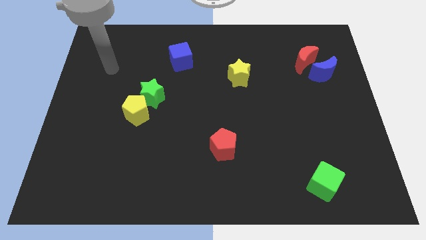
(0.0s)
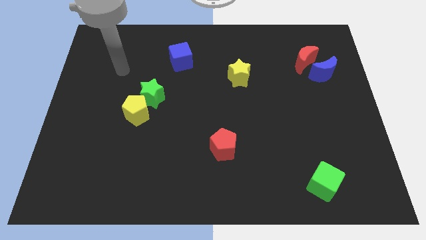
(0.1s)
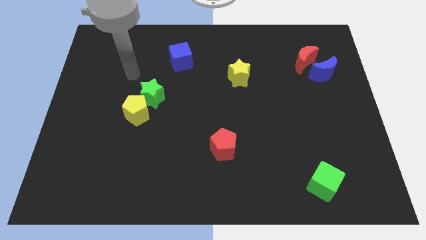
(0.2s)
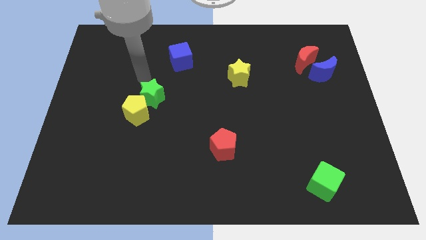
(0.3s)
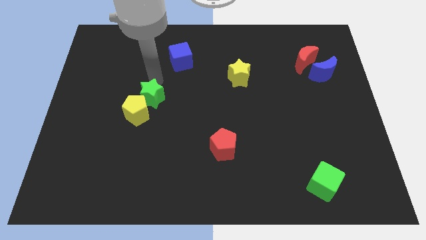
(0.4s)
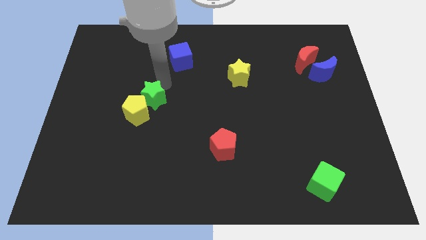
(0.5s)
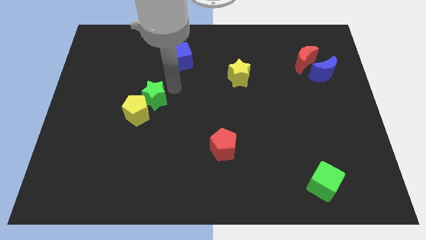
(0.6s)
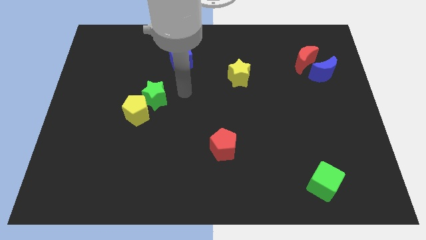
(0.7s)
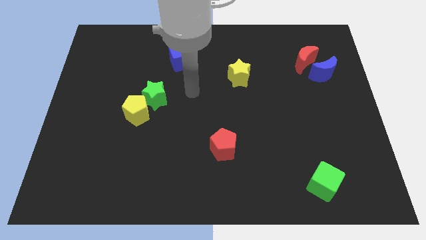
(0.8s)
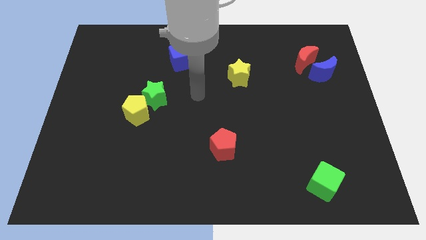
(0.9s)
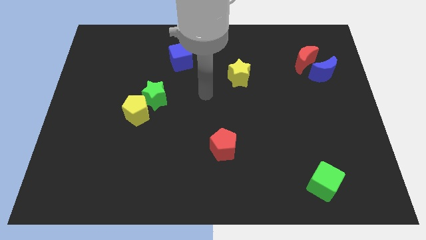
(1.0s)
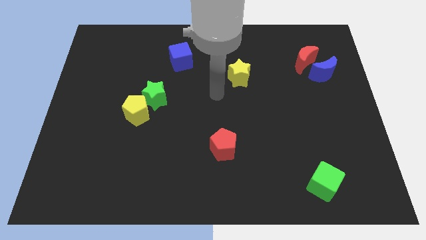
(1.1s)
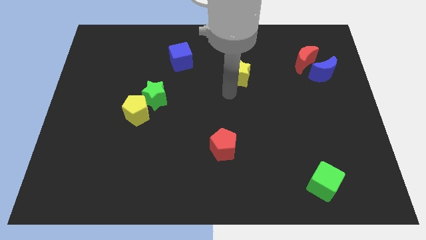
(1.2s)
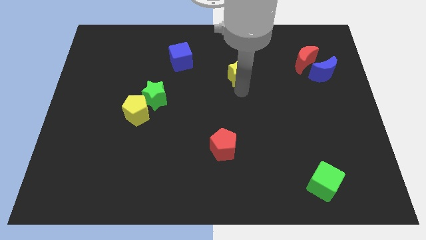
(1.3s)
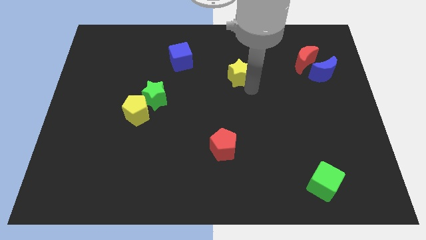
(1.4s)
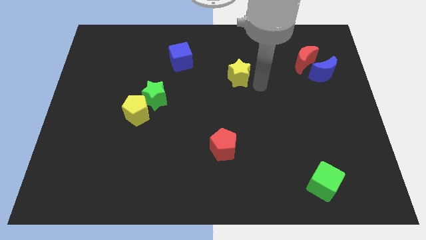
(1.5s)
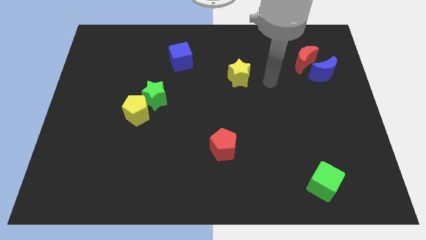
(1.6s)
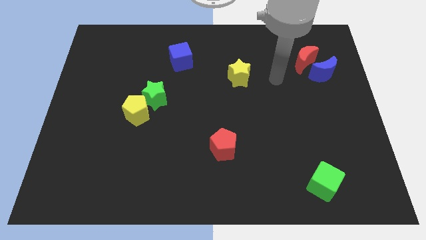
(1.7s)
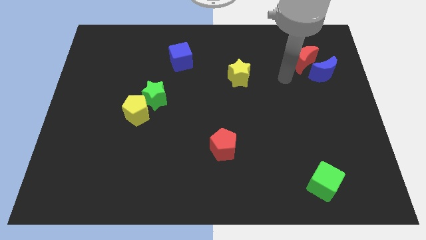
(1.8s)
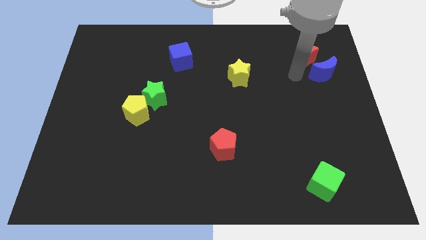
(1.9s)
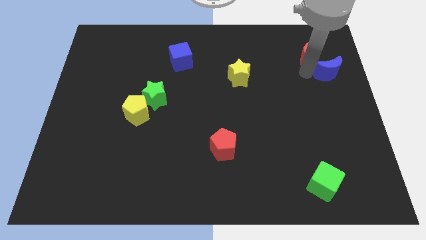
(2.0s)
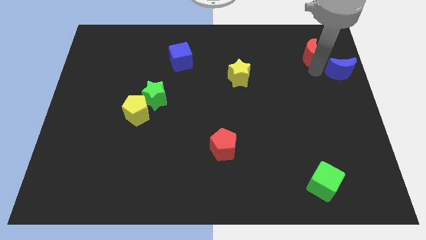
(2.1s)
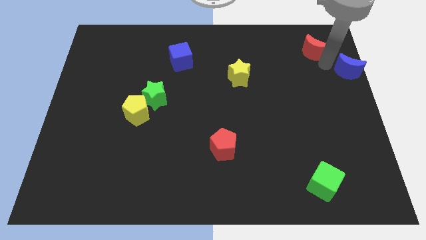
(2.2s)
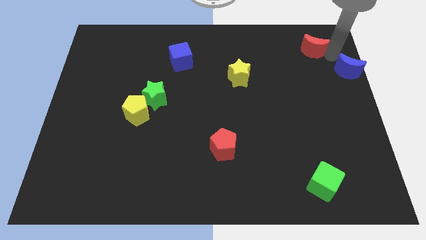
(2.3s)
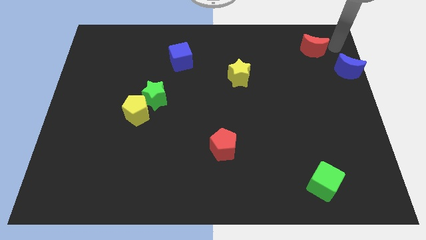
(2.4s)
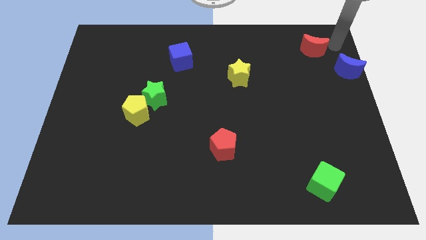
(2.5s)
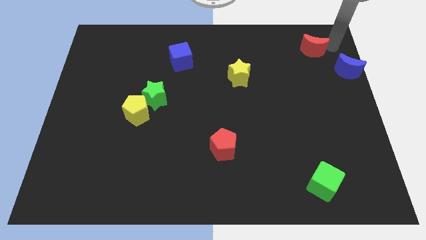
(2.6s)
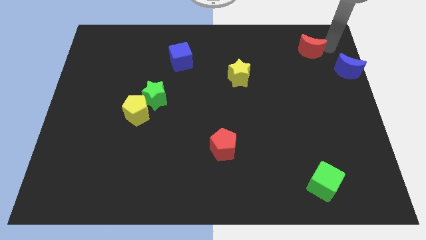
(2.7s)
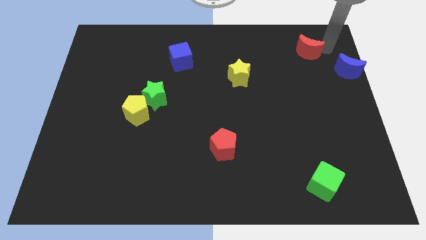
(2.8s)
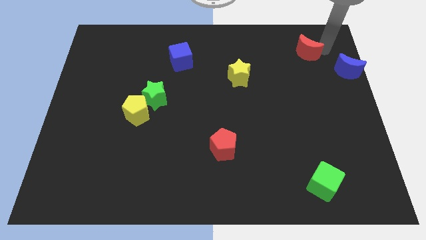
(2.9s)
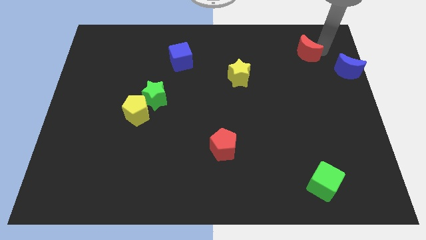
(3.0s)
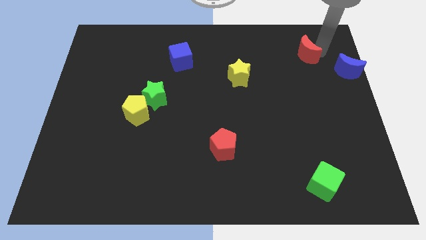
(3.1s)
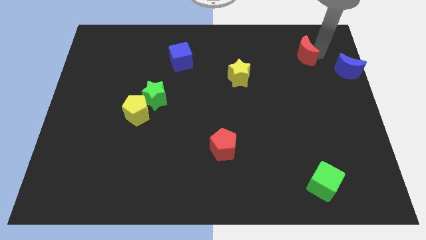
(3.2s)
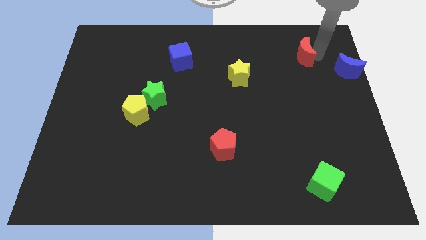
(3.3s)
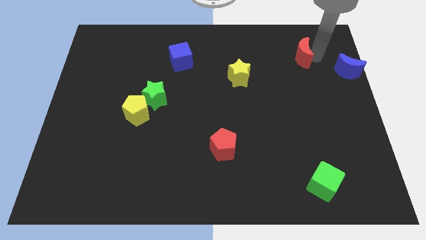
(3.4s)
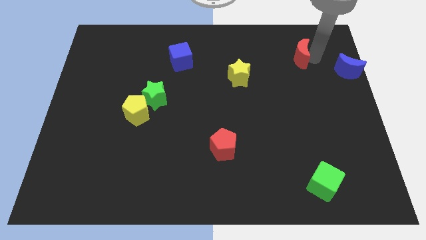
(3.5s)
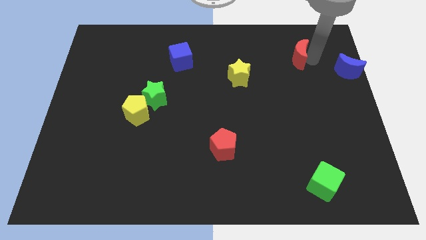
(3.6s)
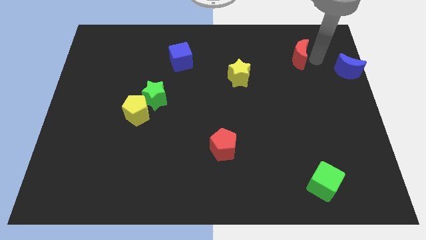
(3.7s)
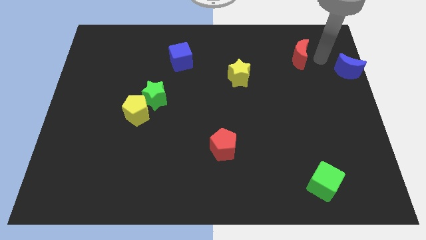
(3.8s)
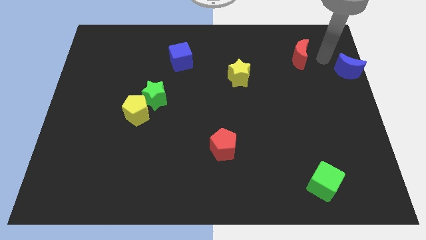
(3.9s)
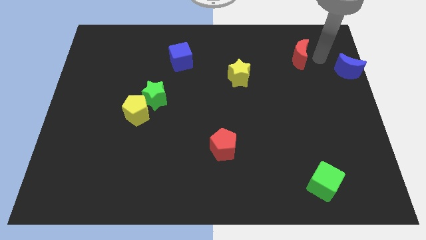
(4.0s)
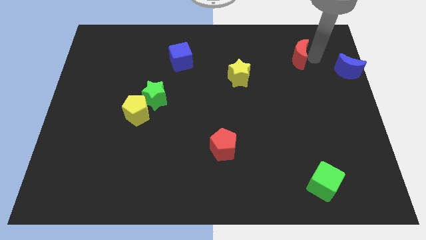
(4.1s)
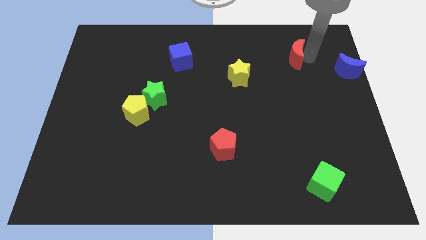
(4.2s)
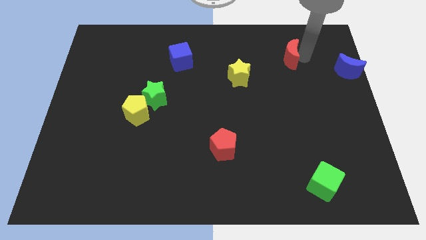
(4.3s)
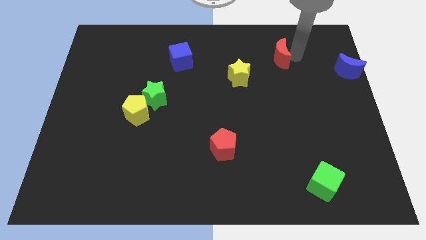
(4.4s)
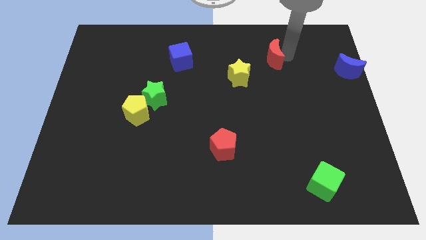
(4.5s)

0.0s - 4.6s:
slightly push the red moon to the left

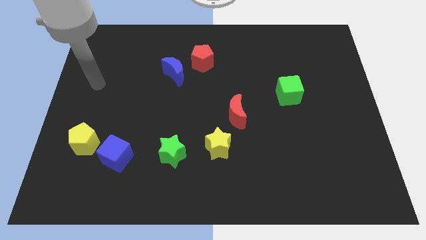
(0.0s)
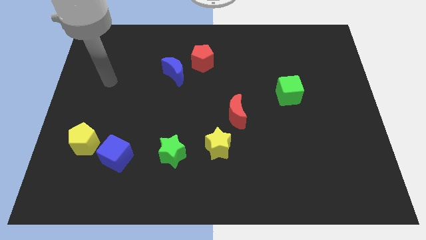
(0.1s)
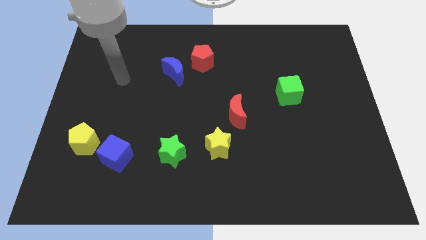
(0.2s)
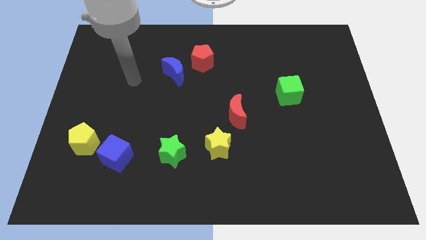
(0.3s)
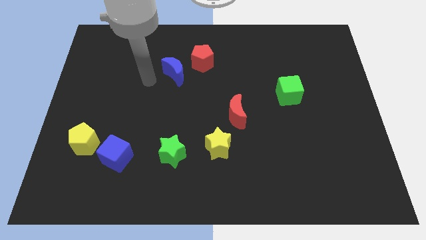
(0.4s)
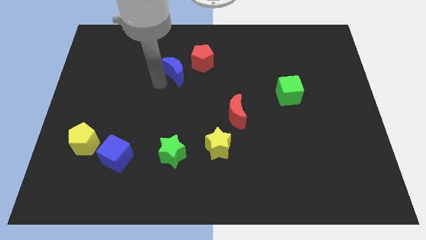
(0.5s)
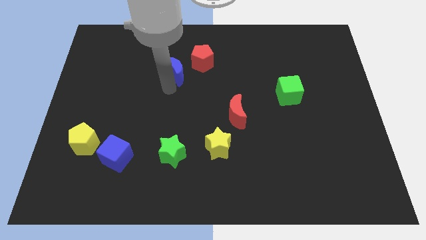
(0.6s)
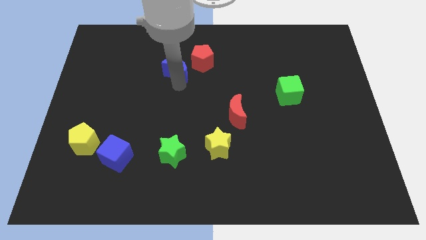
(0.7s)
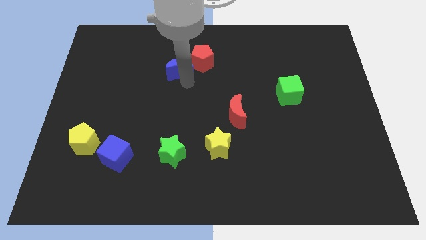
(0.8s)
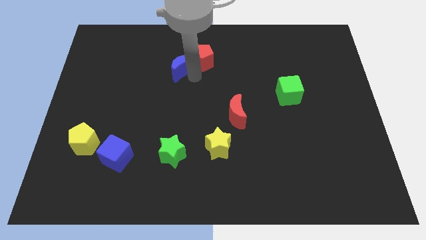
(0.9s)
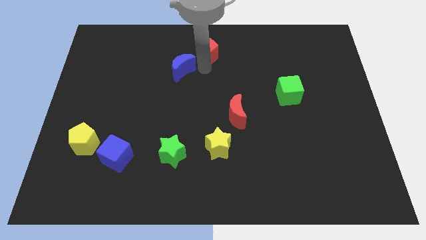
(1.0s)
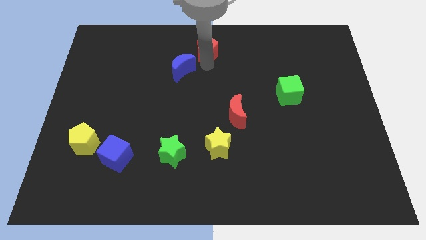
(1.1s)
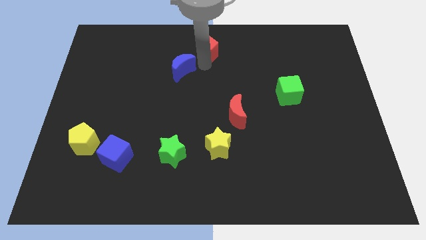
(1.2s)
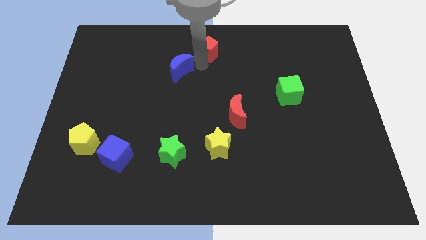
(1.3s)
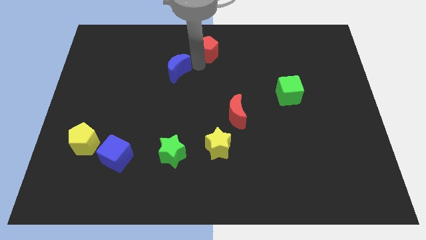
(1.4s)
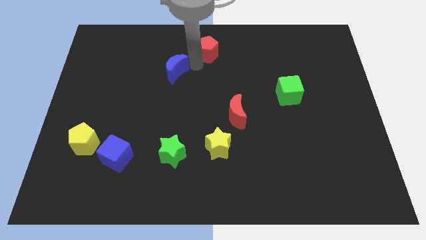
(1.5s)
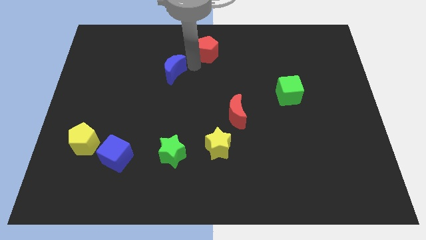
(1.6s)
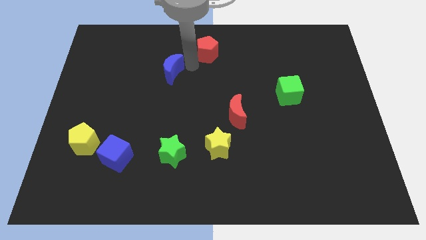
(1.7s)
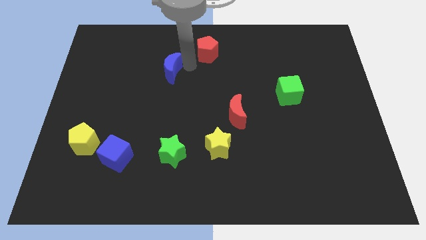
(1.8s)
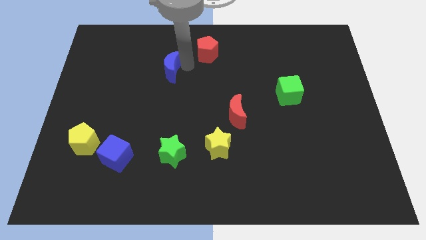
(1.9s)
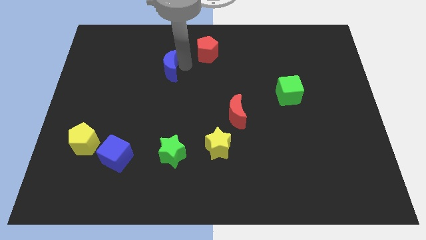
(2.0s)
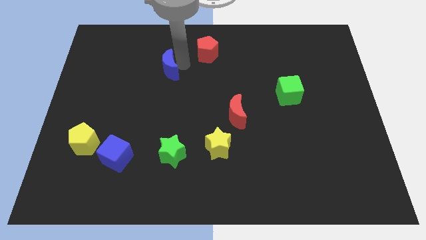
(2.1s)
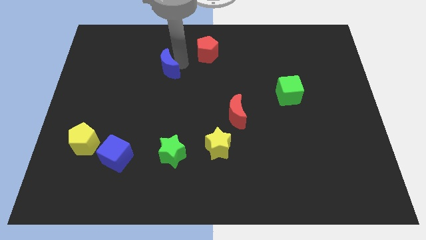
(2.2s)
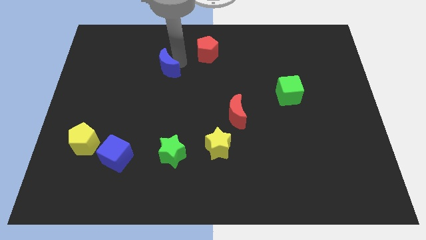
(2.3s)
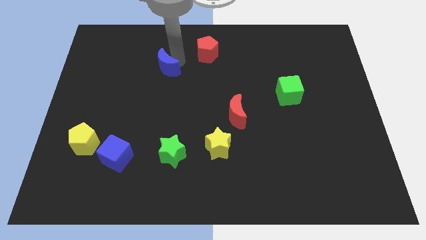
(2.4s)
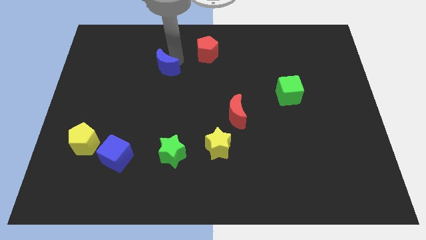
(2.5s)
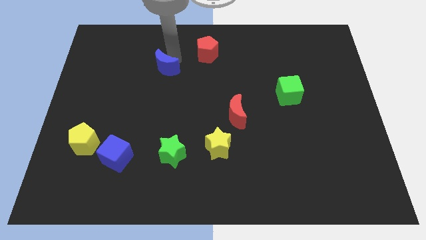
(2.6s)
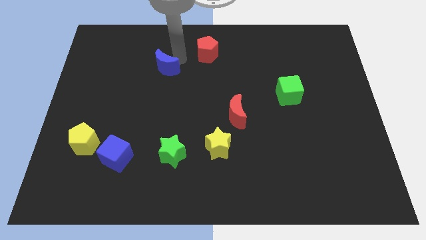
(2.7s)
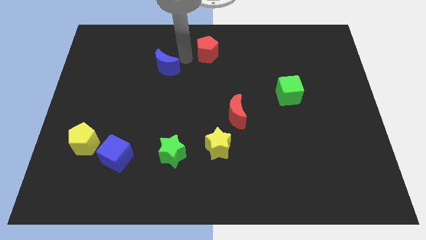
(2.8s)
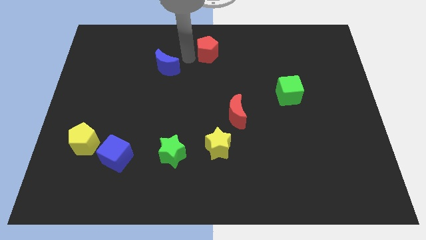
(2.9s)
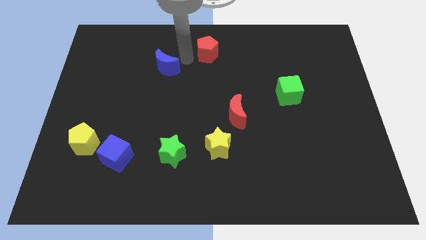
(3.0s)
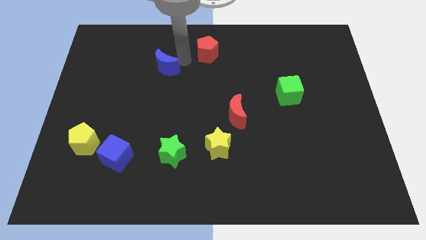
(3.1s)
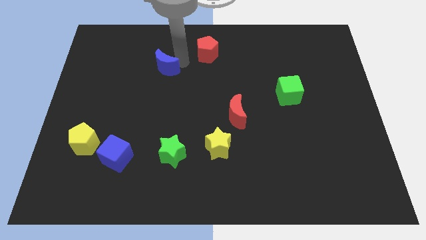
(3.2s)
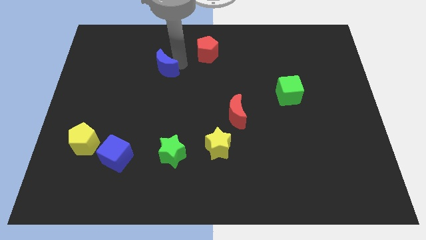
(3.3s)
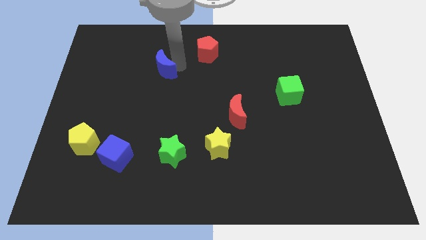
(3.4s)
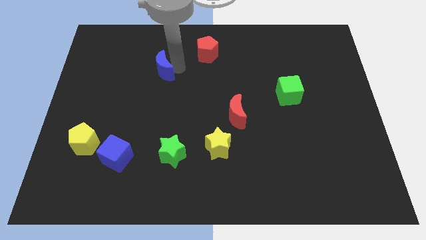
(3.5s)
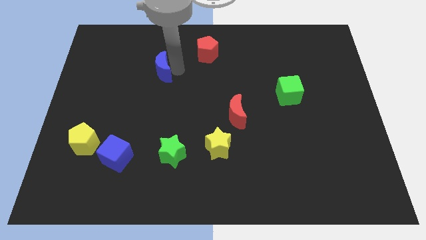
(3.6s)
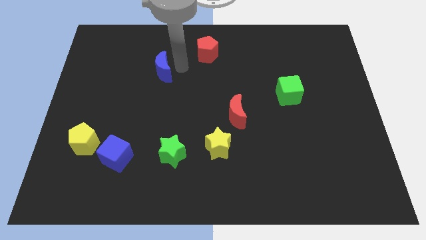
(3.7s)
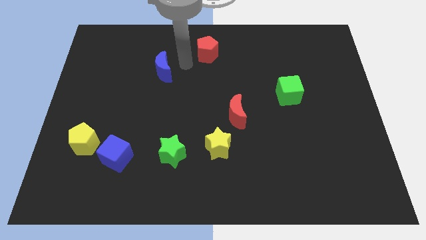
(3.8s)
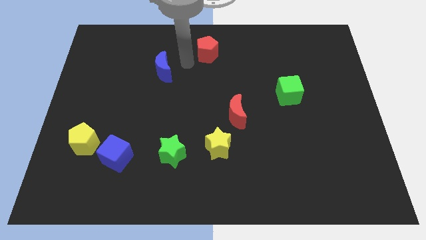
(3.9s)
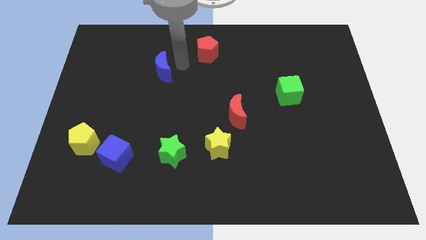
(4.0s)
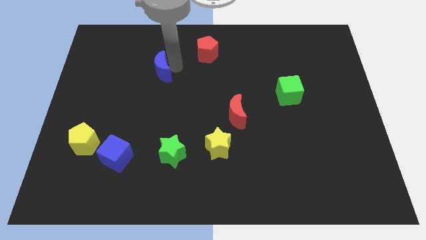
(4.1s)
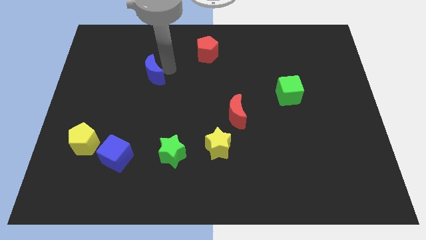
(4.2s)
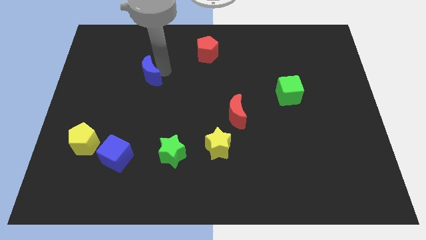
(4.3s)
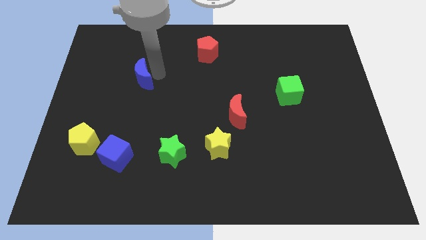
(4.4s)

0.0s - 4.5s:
slide the blue moon a little bit to the left
